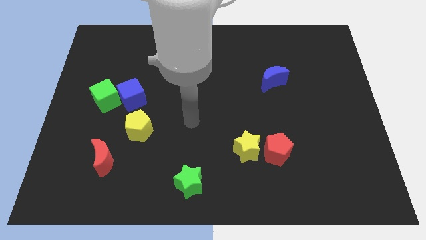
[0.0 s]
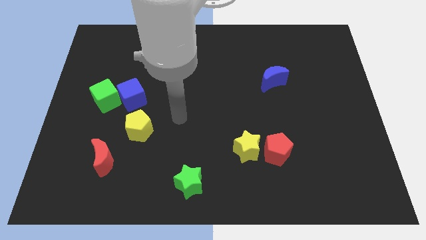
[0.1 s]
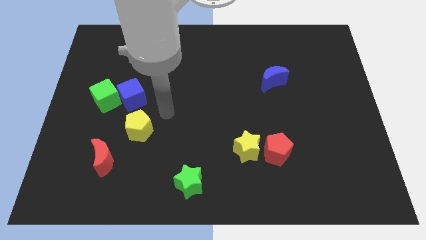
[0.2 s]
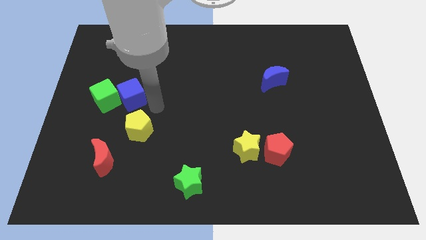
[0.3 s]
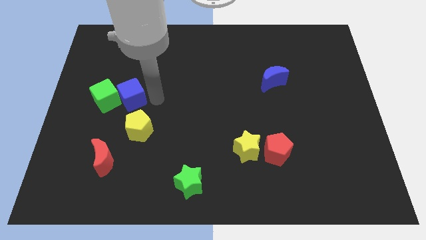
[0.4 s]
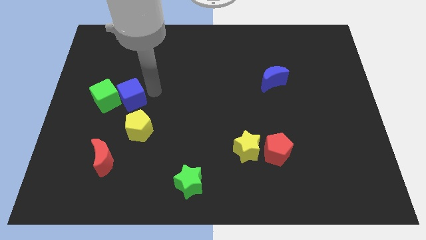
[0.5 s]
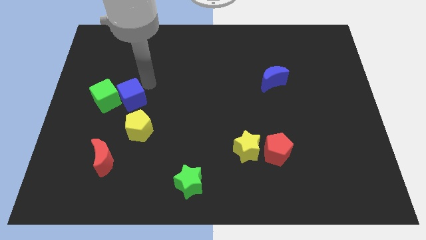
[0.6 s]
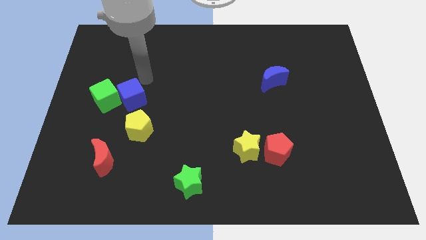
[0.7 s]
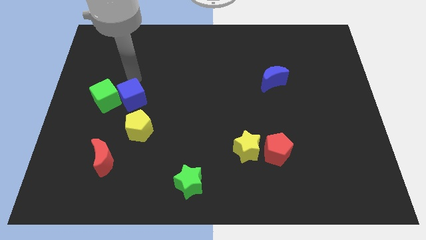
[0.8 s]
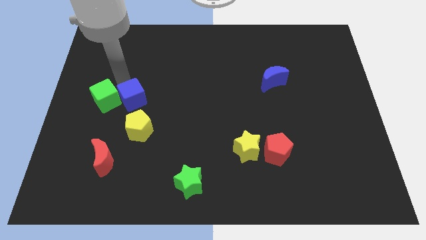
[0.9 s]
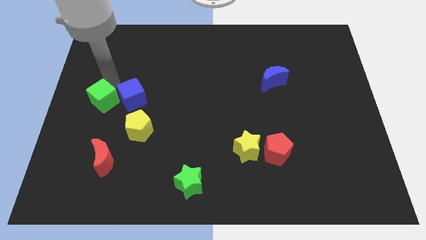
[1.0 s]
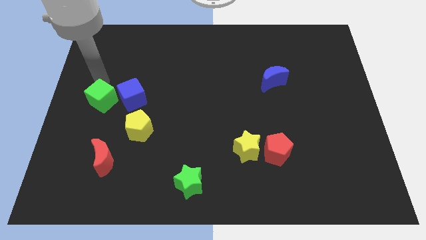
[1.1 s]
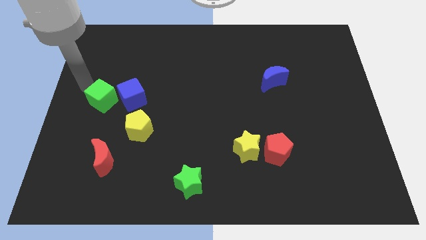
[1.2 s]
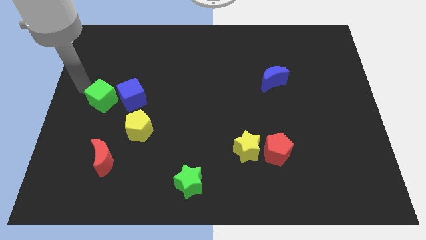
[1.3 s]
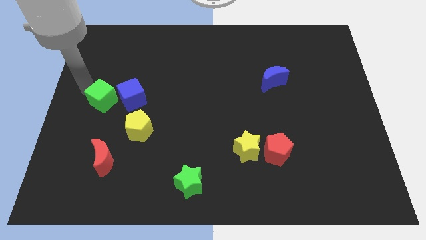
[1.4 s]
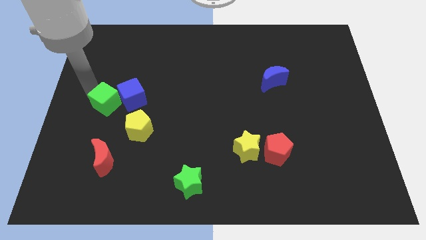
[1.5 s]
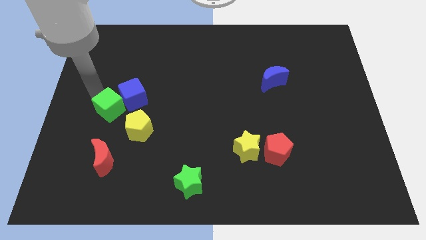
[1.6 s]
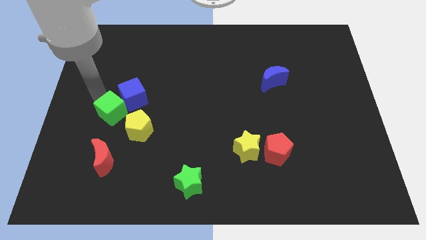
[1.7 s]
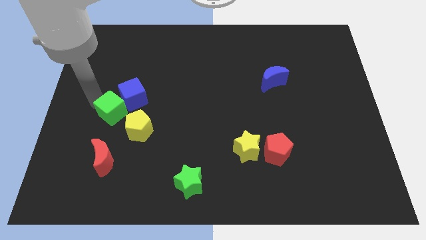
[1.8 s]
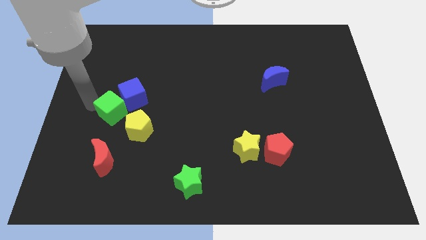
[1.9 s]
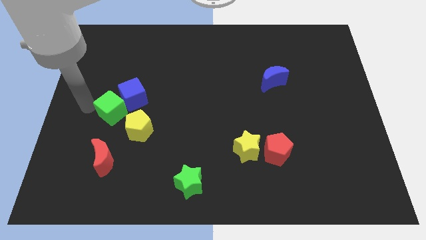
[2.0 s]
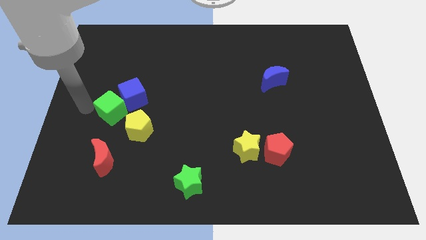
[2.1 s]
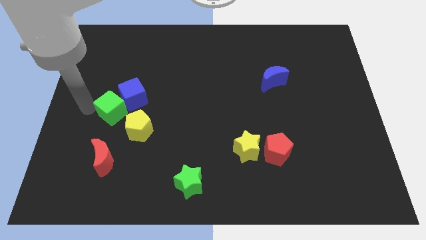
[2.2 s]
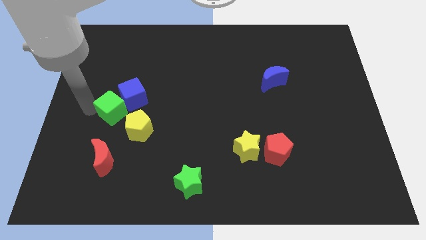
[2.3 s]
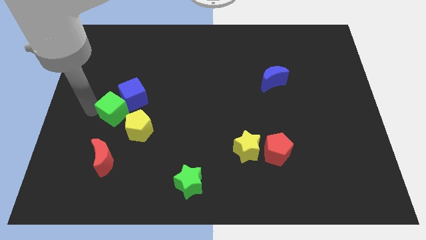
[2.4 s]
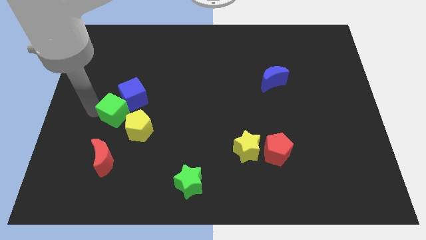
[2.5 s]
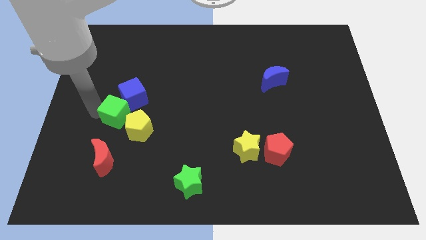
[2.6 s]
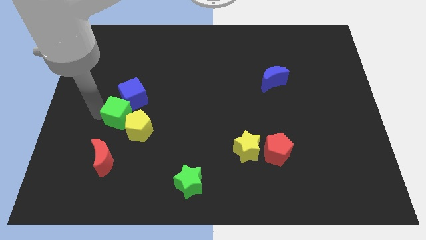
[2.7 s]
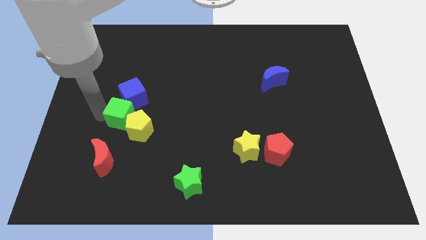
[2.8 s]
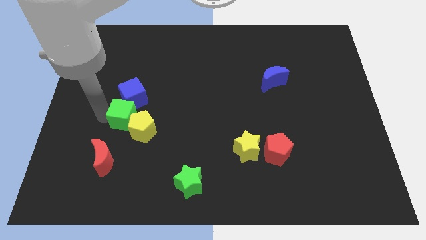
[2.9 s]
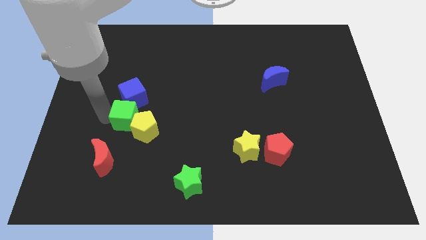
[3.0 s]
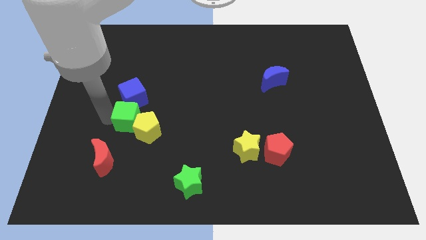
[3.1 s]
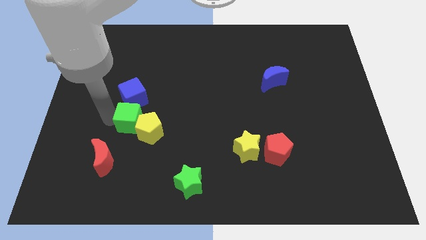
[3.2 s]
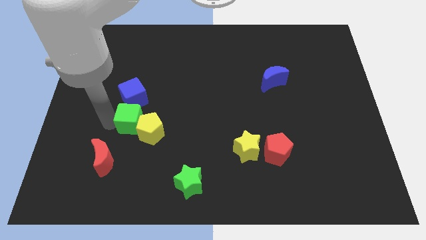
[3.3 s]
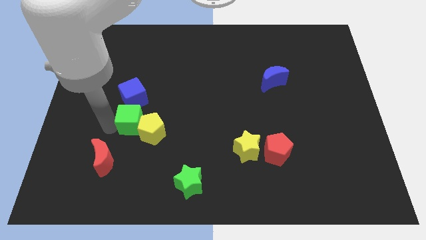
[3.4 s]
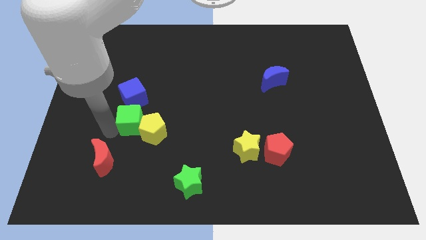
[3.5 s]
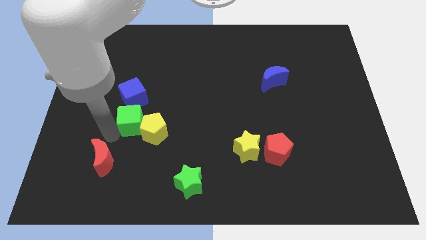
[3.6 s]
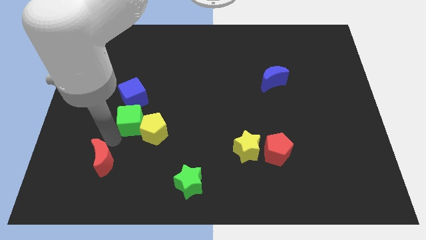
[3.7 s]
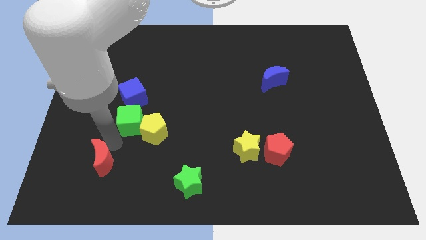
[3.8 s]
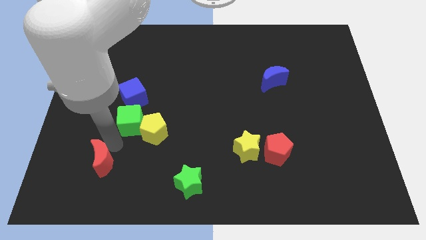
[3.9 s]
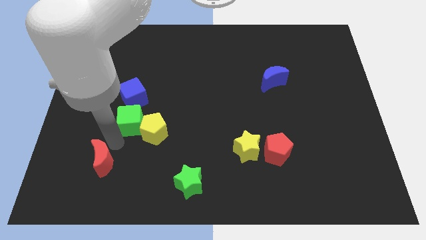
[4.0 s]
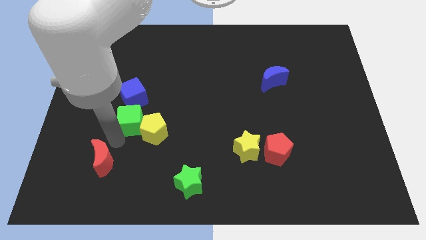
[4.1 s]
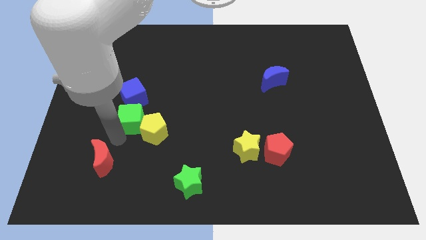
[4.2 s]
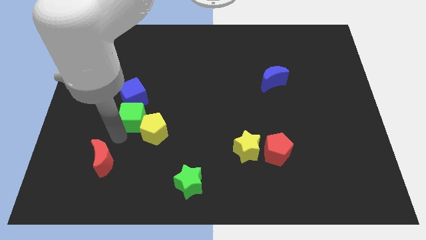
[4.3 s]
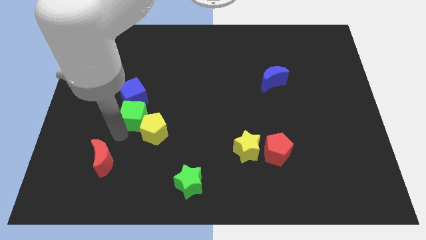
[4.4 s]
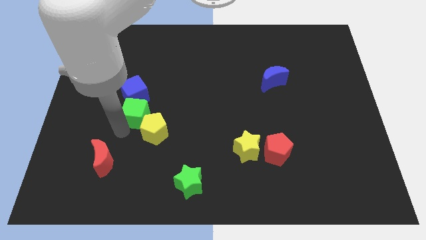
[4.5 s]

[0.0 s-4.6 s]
slightly slide the green cube right

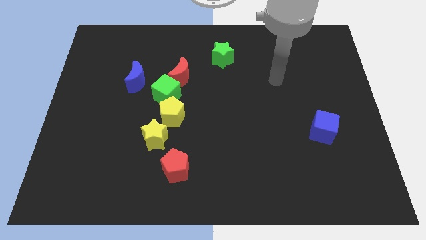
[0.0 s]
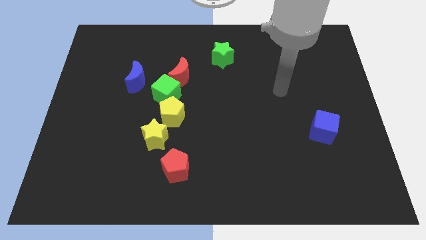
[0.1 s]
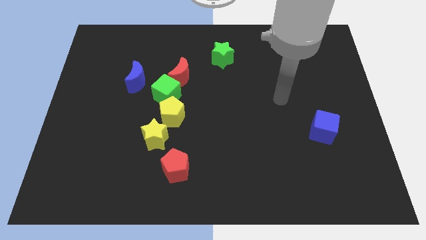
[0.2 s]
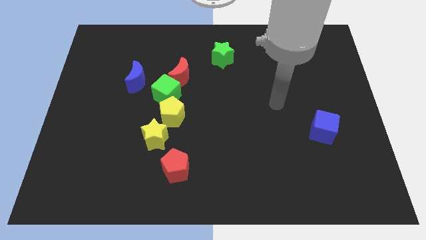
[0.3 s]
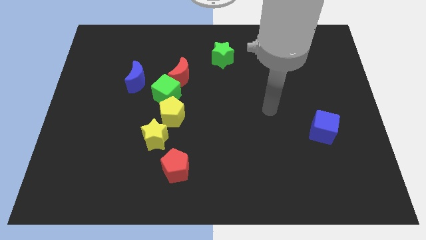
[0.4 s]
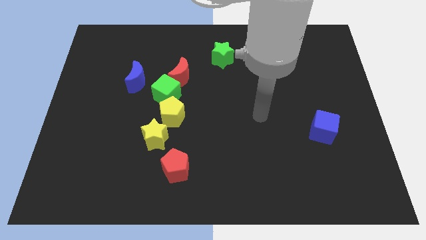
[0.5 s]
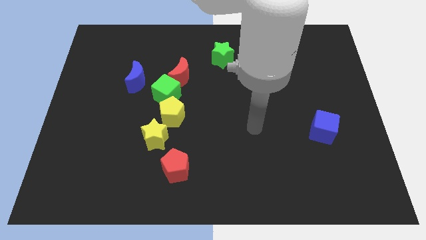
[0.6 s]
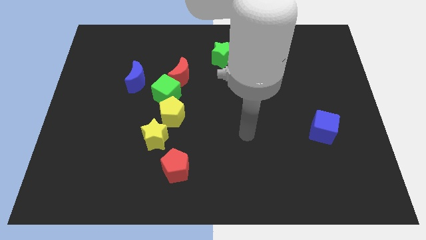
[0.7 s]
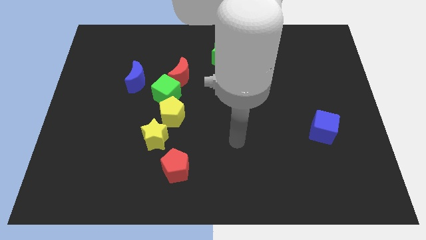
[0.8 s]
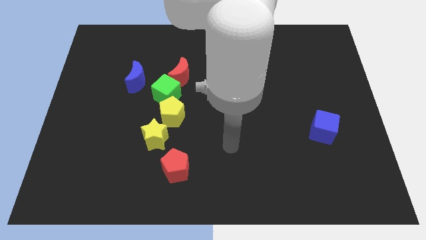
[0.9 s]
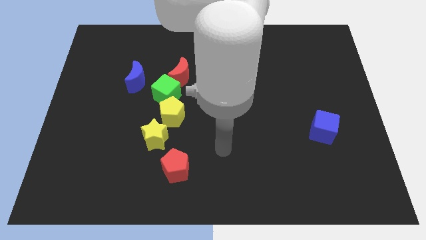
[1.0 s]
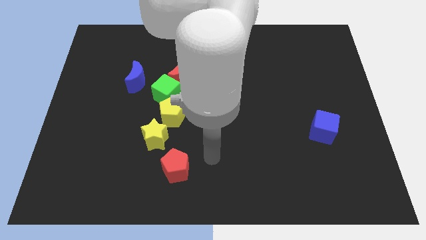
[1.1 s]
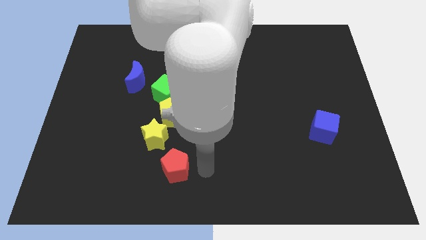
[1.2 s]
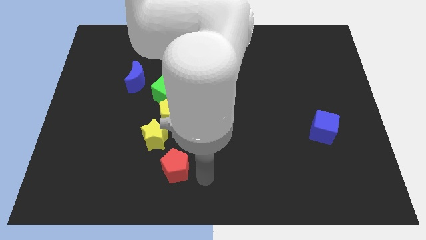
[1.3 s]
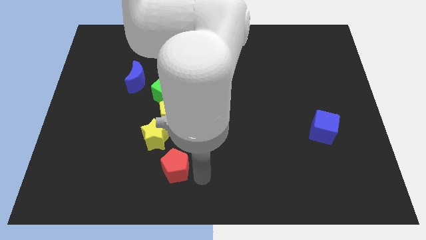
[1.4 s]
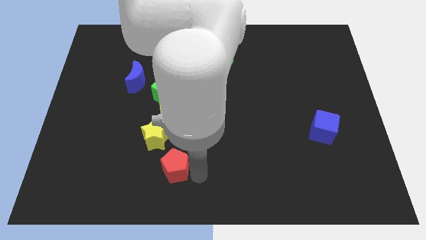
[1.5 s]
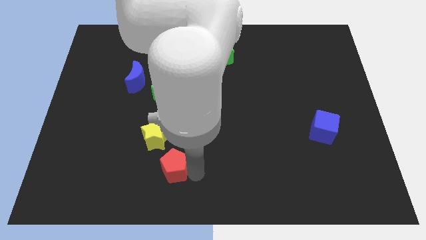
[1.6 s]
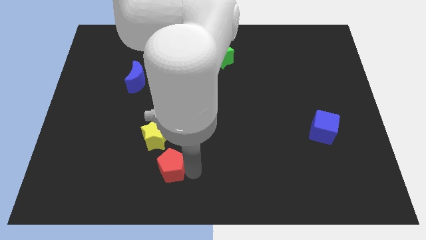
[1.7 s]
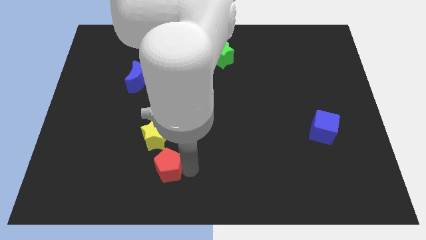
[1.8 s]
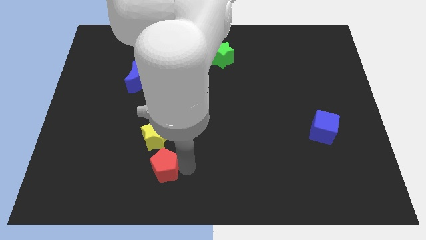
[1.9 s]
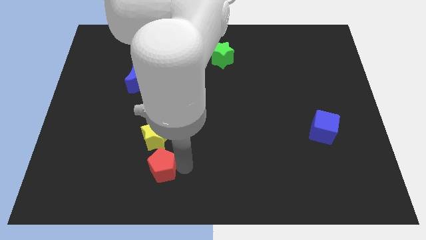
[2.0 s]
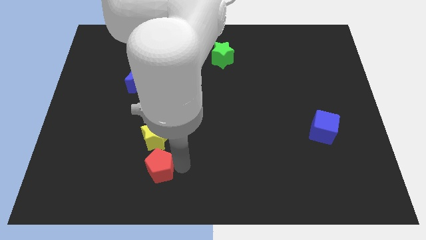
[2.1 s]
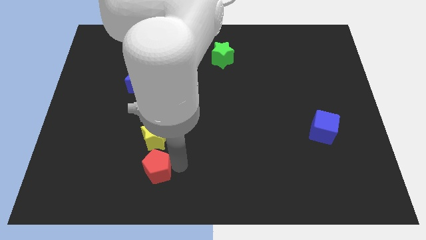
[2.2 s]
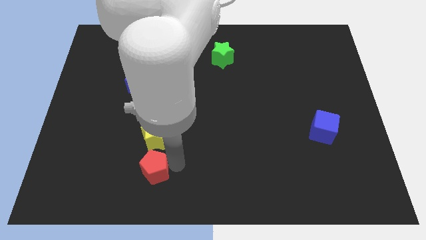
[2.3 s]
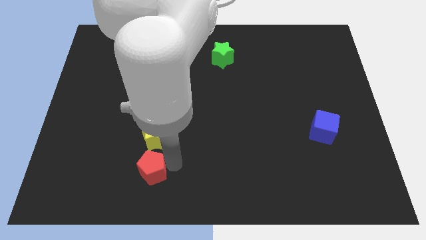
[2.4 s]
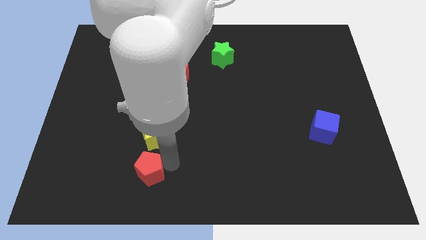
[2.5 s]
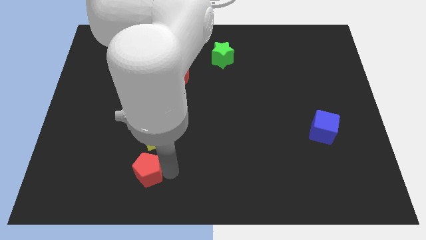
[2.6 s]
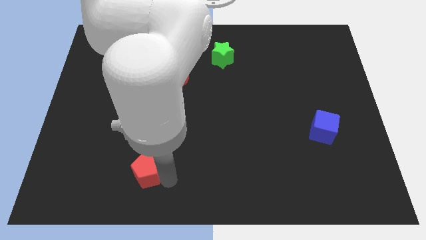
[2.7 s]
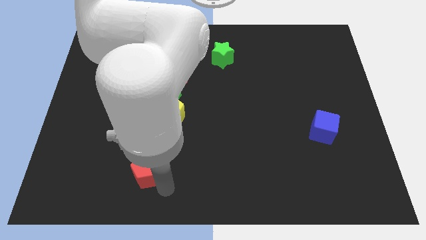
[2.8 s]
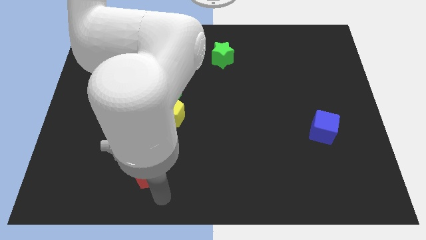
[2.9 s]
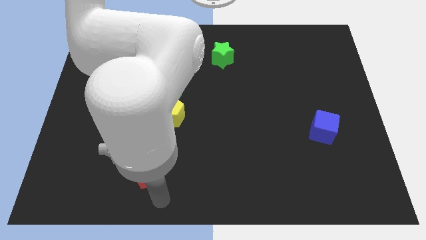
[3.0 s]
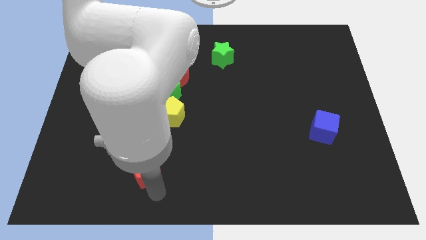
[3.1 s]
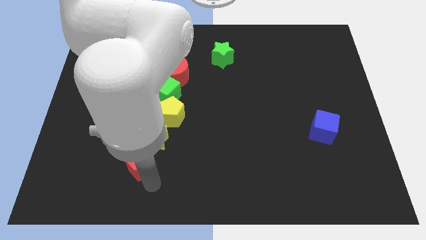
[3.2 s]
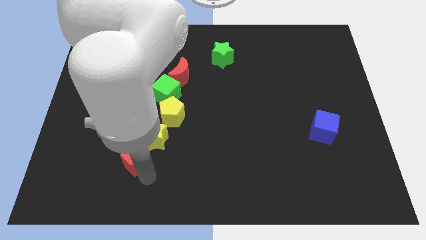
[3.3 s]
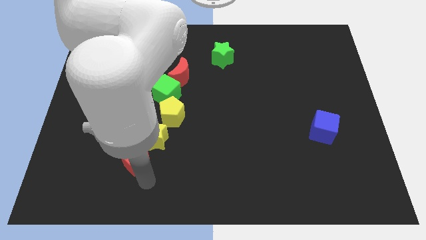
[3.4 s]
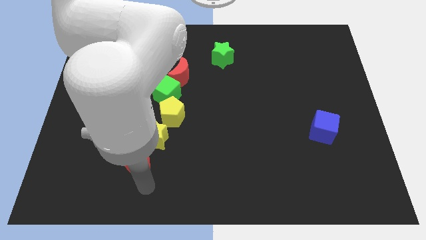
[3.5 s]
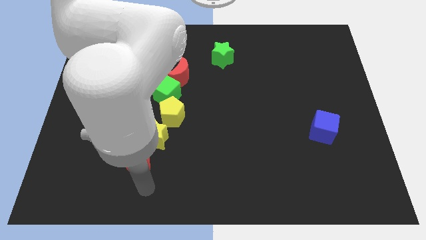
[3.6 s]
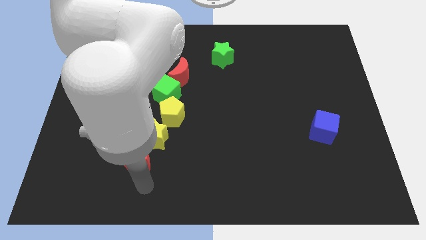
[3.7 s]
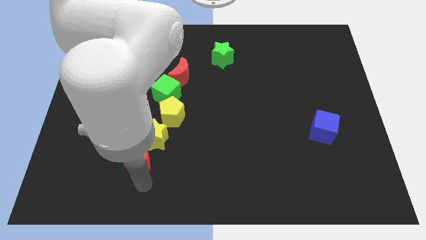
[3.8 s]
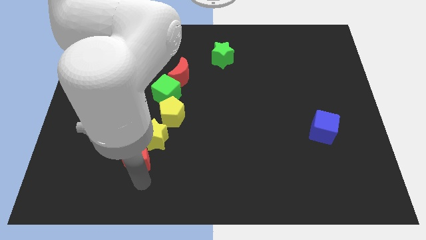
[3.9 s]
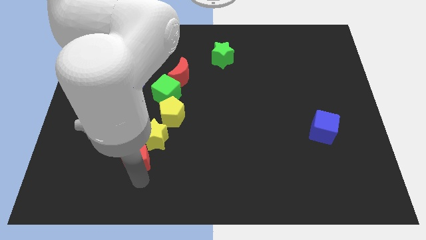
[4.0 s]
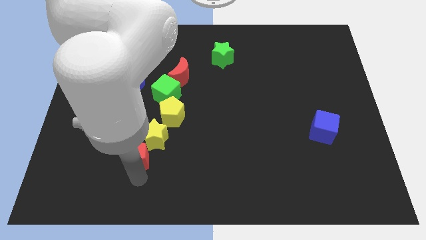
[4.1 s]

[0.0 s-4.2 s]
slightly push the red pentagon upwards and to the left diagonally
